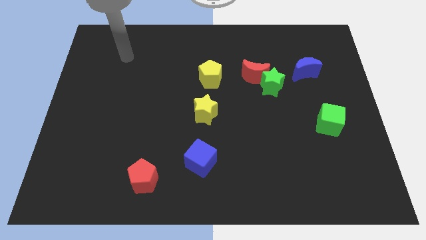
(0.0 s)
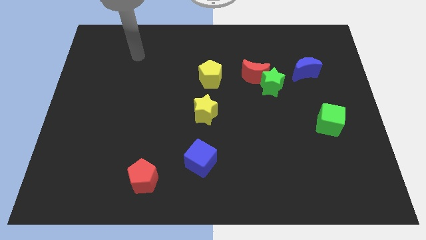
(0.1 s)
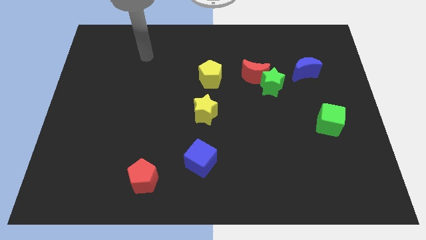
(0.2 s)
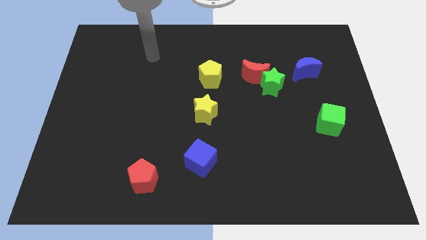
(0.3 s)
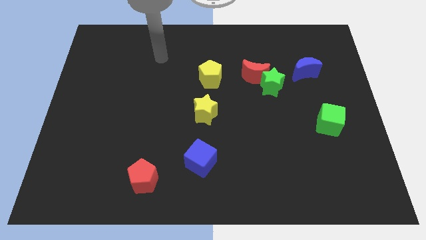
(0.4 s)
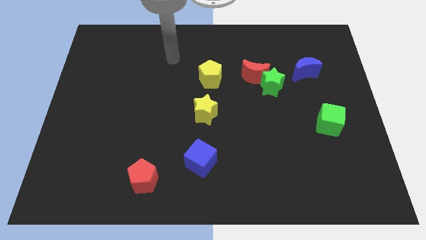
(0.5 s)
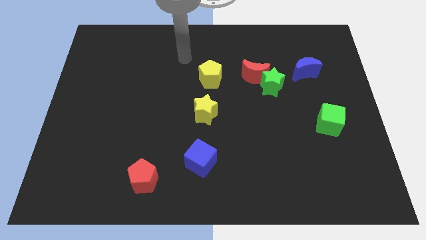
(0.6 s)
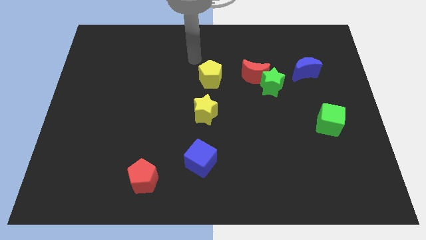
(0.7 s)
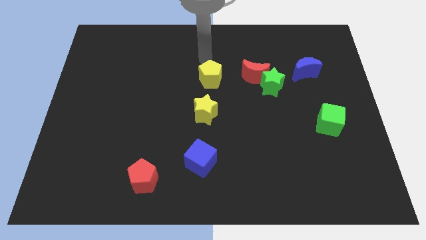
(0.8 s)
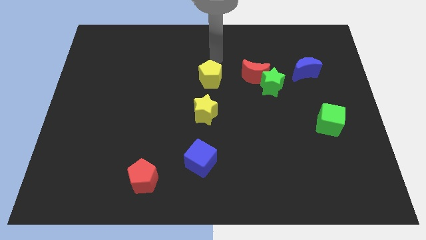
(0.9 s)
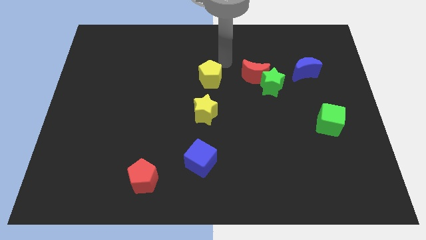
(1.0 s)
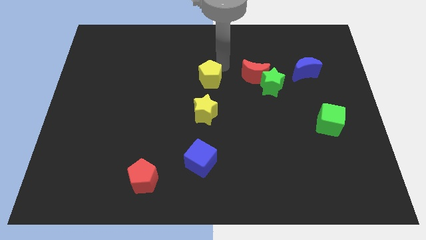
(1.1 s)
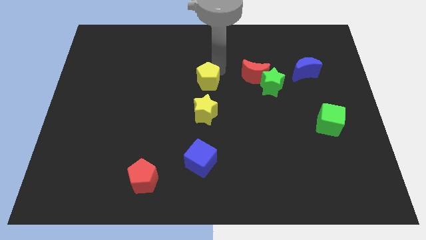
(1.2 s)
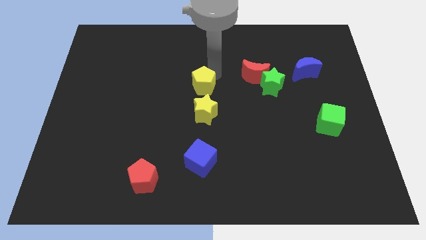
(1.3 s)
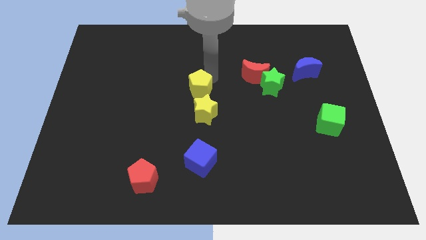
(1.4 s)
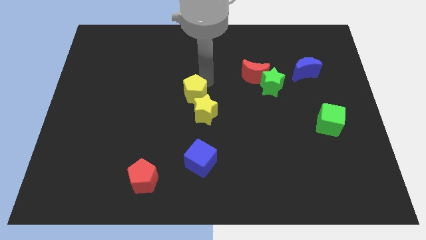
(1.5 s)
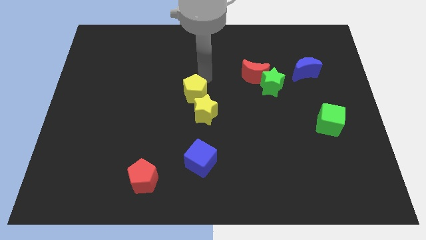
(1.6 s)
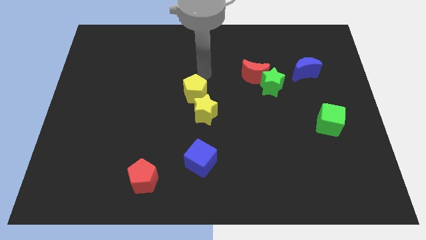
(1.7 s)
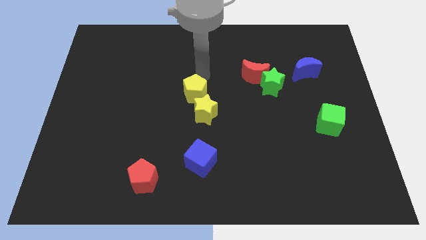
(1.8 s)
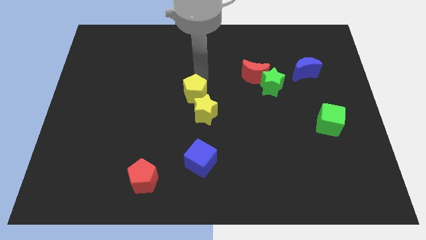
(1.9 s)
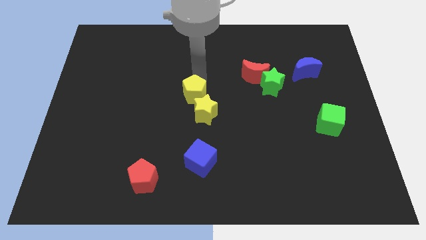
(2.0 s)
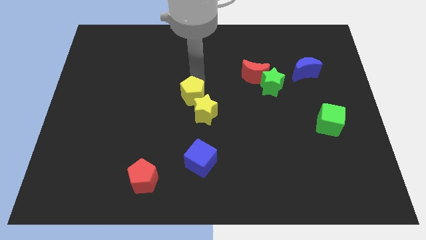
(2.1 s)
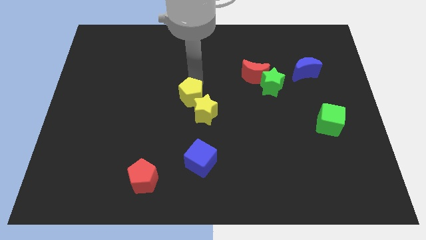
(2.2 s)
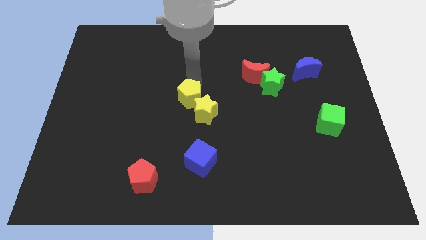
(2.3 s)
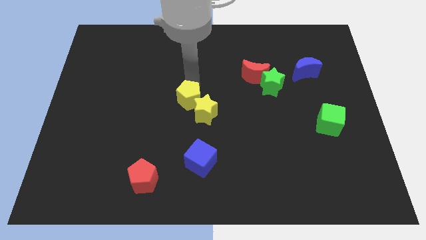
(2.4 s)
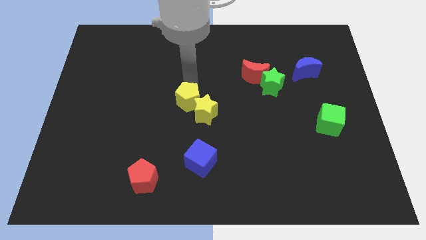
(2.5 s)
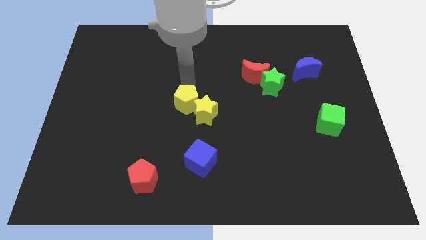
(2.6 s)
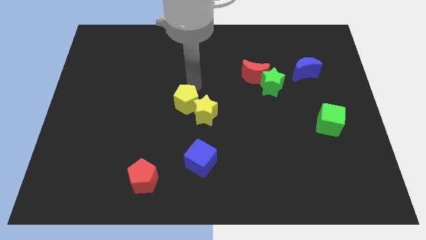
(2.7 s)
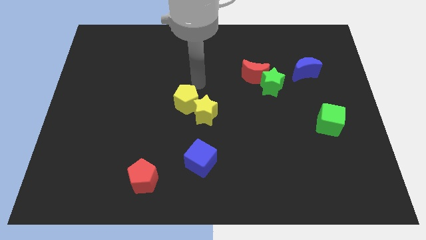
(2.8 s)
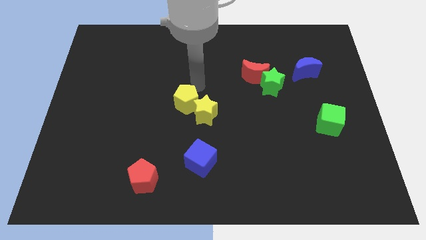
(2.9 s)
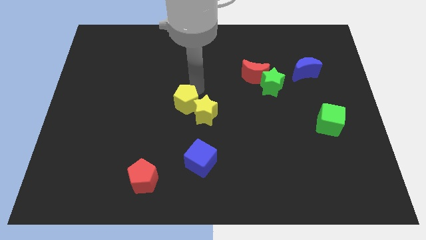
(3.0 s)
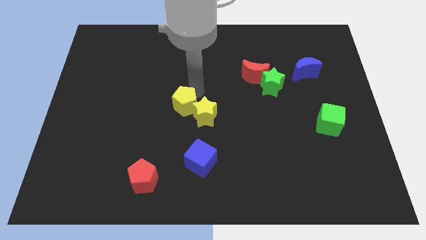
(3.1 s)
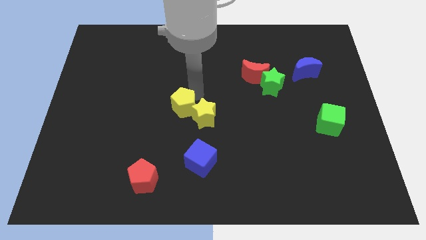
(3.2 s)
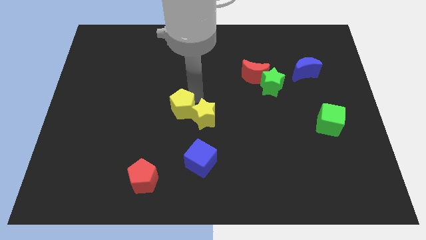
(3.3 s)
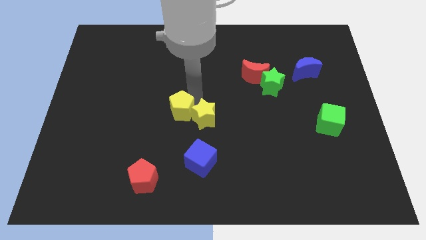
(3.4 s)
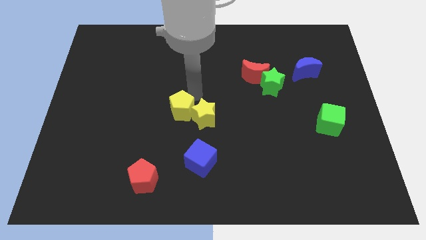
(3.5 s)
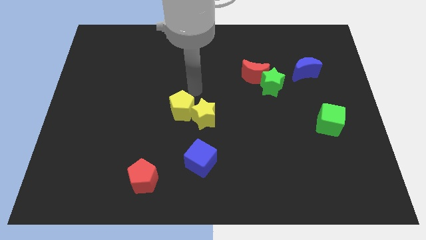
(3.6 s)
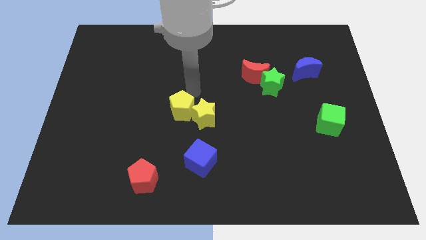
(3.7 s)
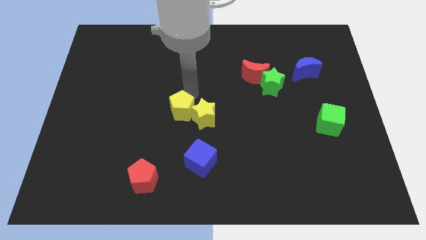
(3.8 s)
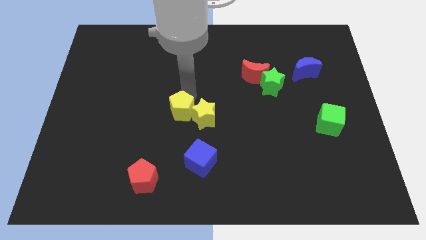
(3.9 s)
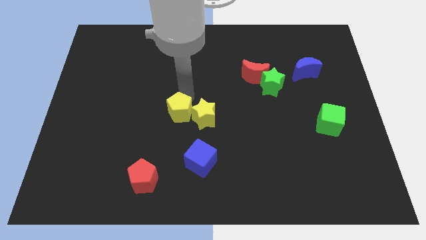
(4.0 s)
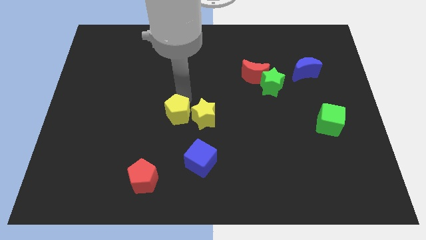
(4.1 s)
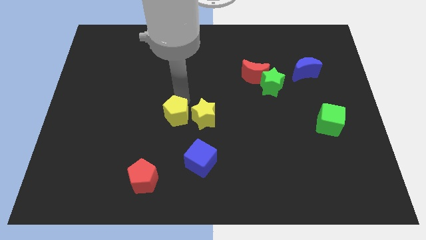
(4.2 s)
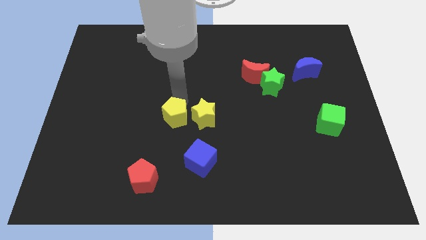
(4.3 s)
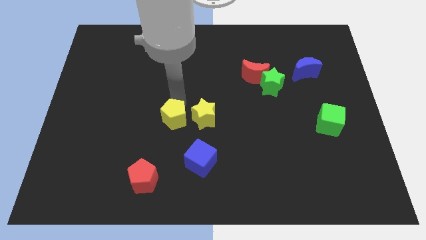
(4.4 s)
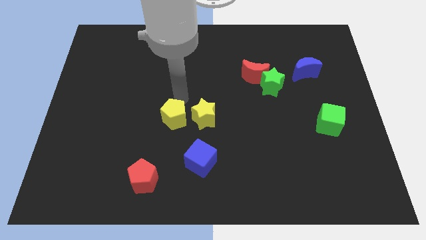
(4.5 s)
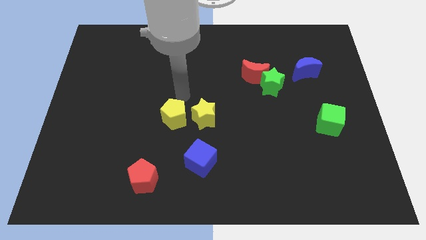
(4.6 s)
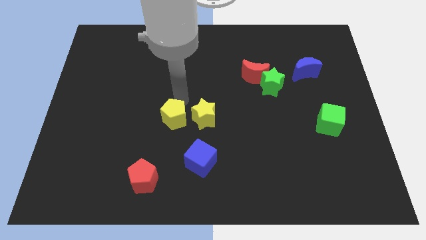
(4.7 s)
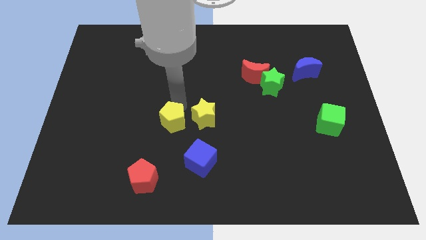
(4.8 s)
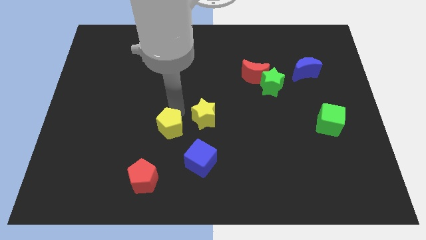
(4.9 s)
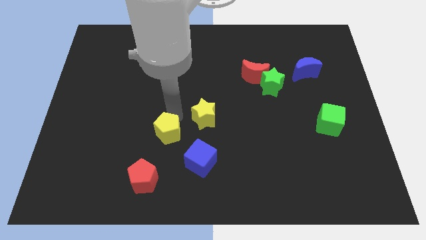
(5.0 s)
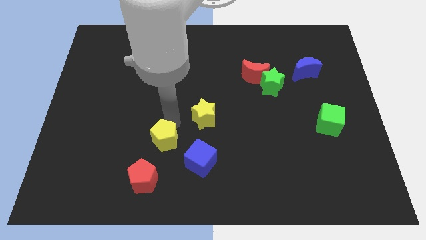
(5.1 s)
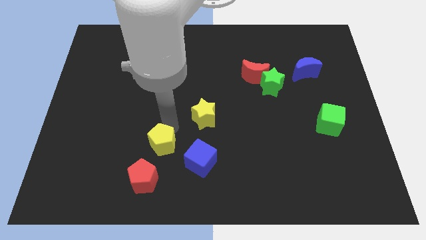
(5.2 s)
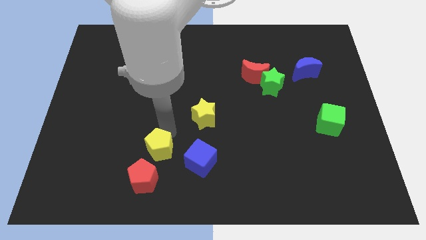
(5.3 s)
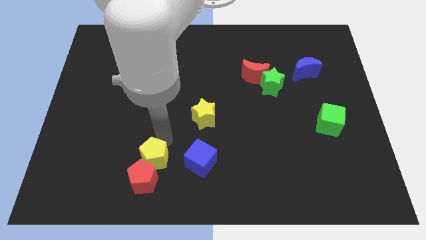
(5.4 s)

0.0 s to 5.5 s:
slide the yellow pentagon towards the red pentagon

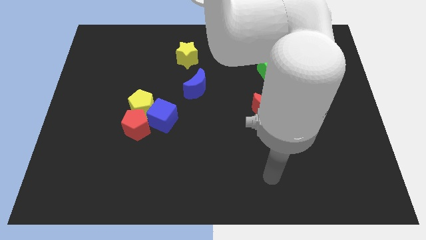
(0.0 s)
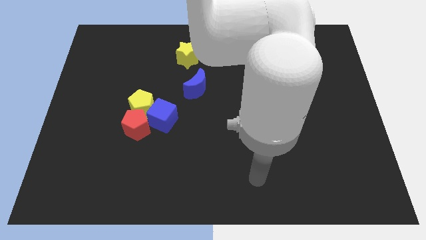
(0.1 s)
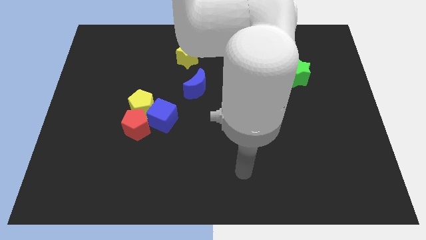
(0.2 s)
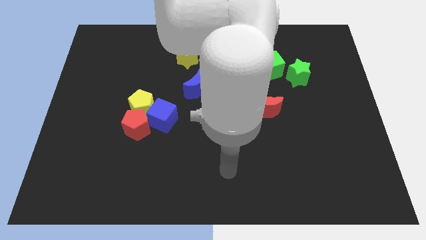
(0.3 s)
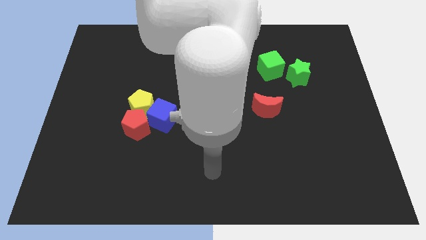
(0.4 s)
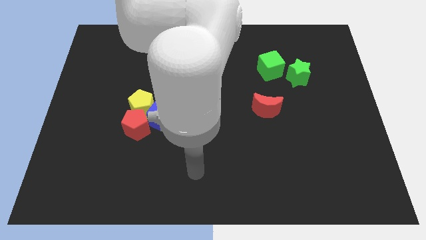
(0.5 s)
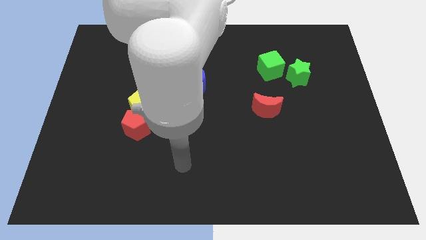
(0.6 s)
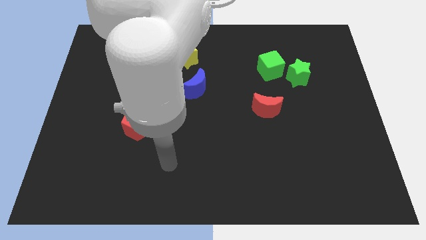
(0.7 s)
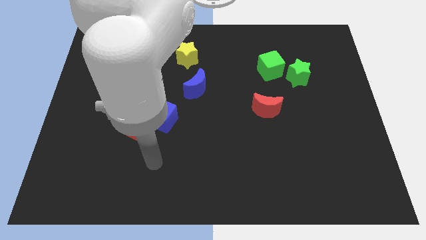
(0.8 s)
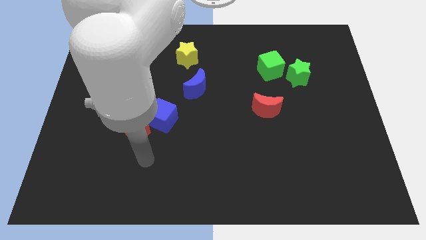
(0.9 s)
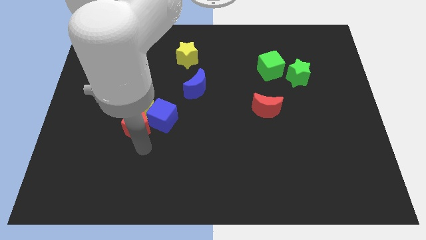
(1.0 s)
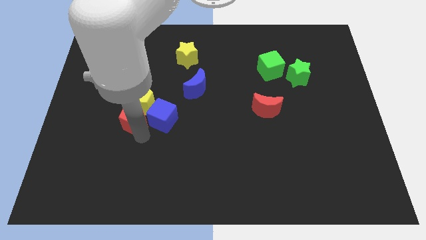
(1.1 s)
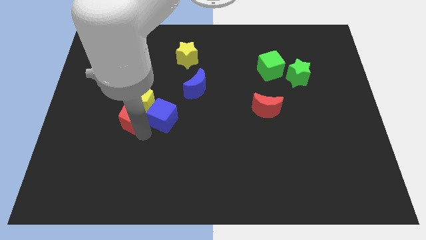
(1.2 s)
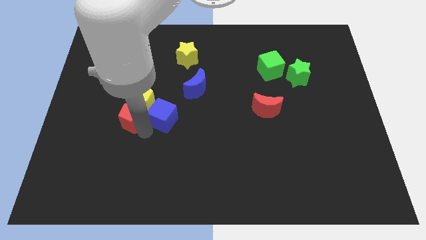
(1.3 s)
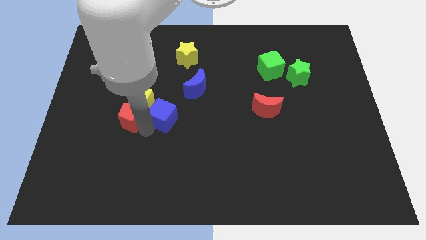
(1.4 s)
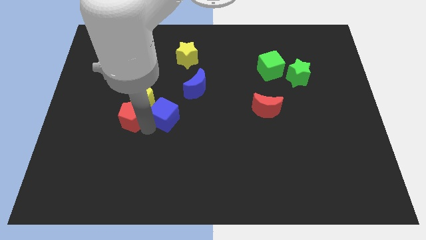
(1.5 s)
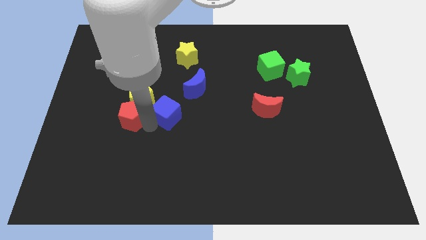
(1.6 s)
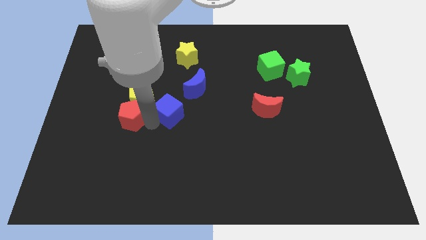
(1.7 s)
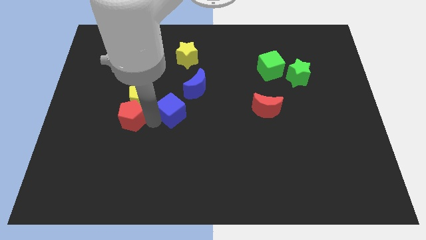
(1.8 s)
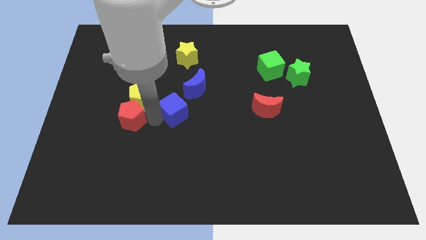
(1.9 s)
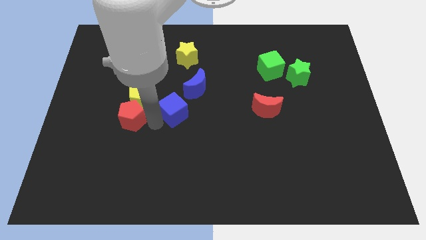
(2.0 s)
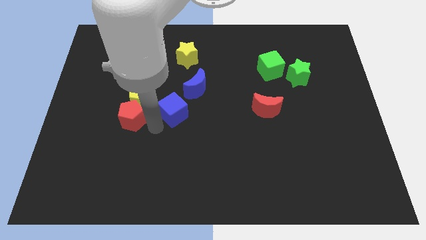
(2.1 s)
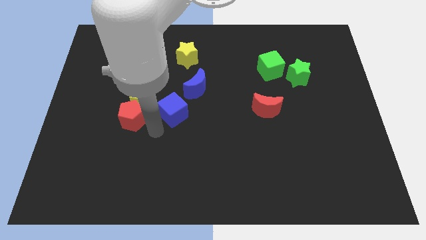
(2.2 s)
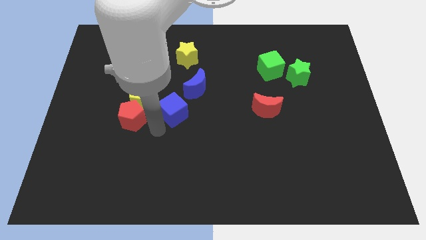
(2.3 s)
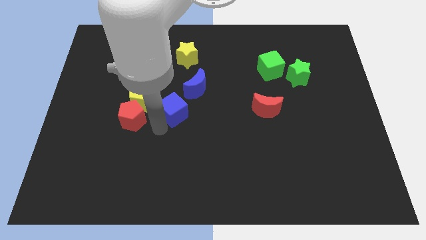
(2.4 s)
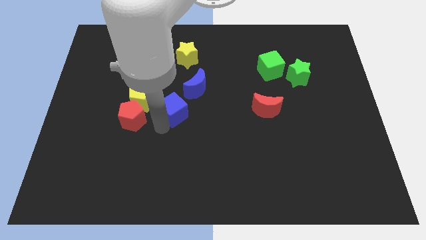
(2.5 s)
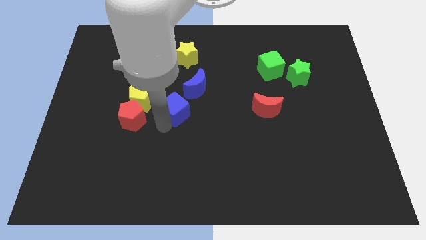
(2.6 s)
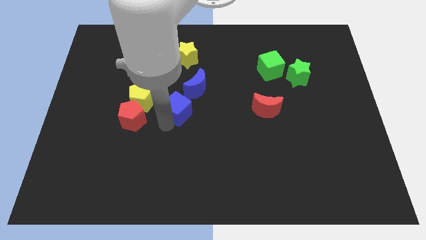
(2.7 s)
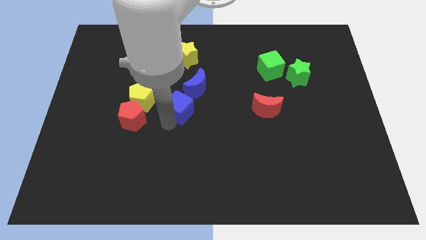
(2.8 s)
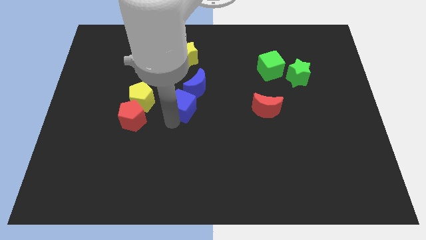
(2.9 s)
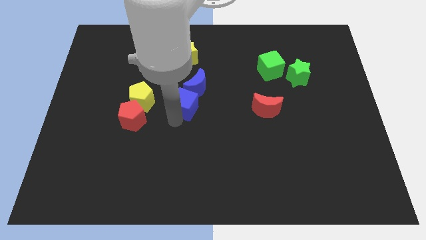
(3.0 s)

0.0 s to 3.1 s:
slide the blue cube close to the blue moon
